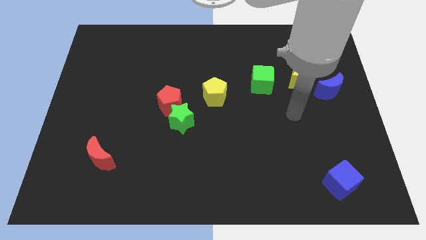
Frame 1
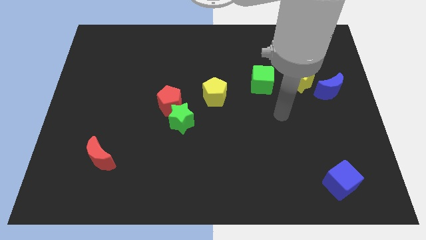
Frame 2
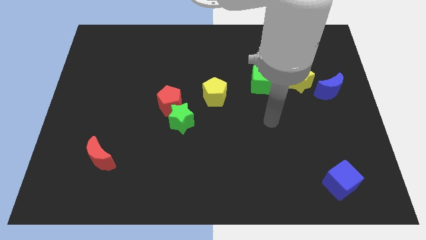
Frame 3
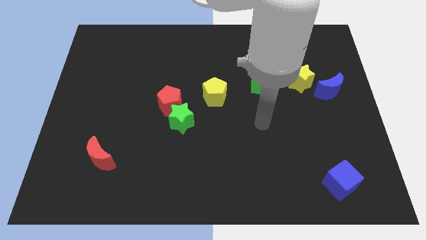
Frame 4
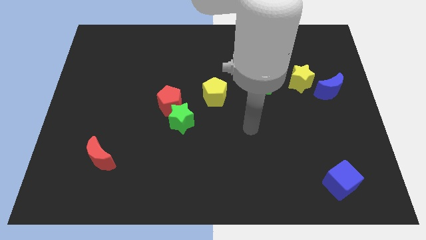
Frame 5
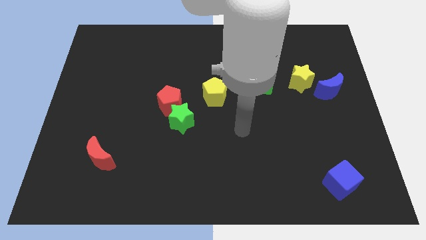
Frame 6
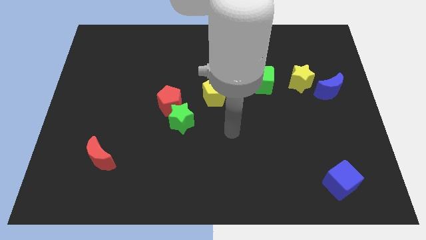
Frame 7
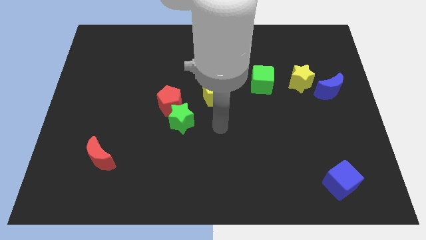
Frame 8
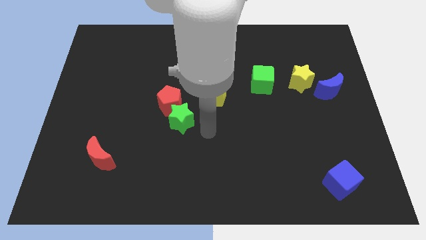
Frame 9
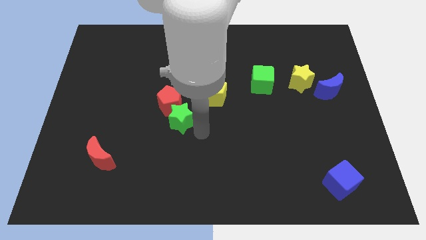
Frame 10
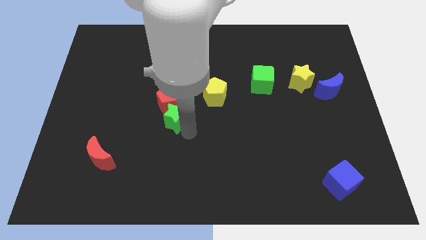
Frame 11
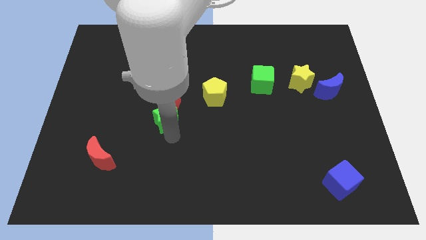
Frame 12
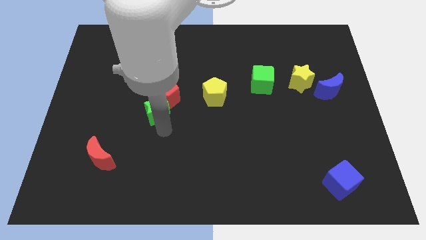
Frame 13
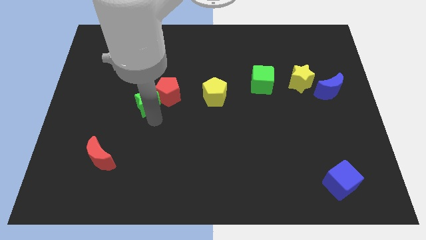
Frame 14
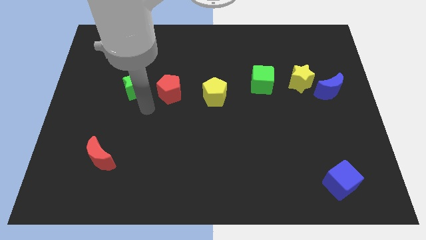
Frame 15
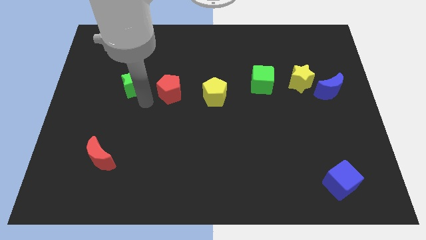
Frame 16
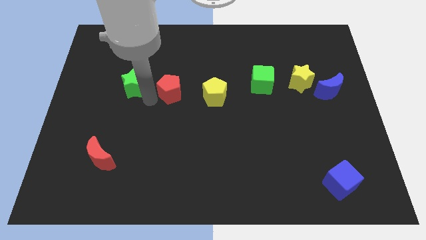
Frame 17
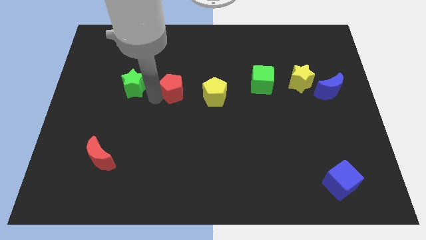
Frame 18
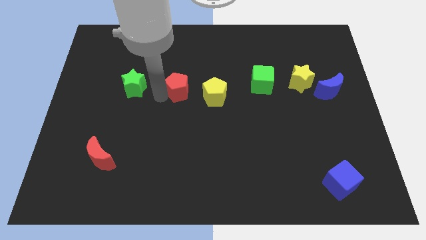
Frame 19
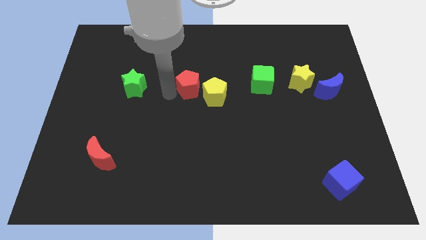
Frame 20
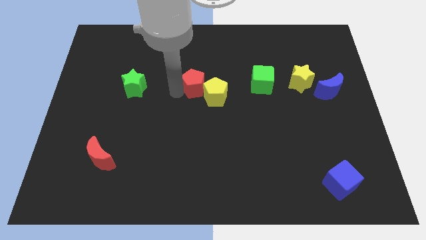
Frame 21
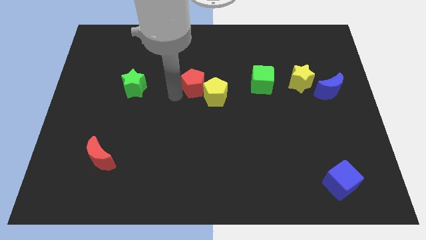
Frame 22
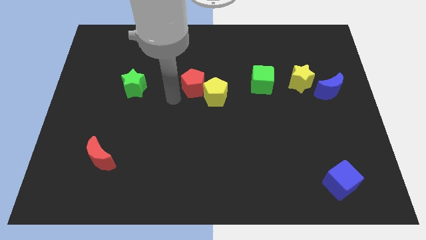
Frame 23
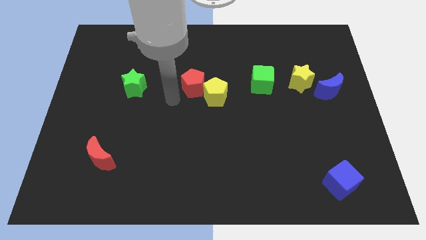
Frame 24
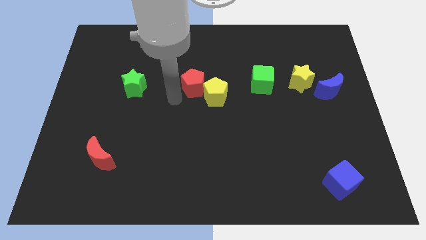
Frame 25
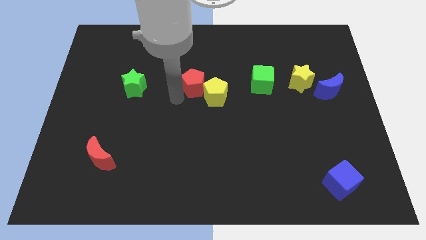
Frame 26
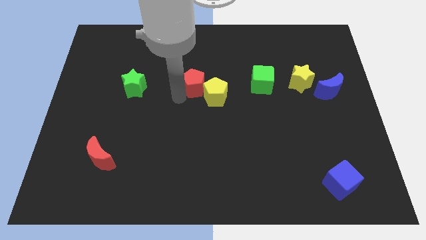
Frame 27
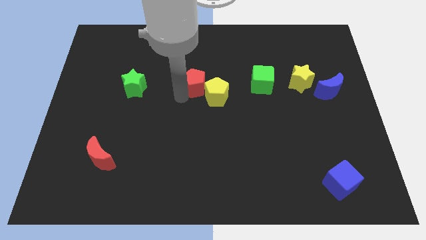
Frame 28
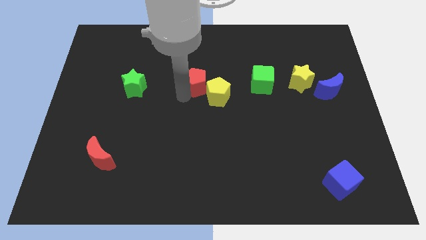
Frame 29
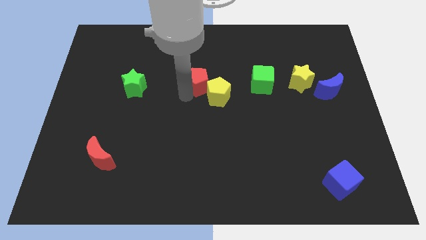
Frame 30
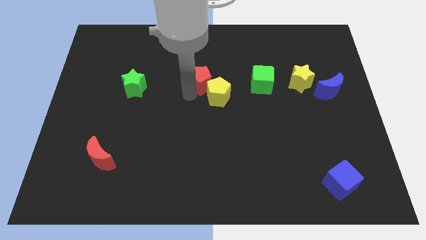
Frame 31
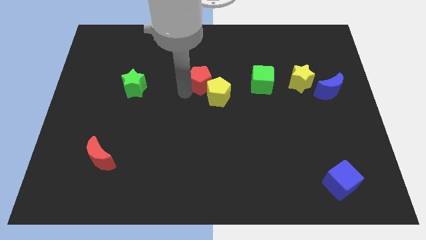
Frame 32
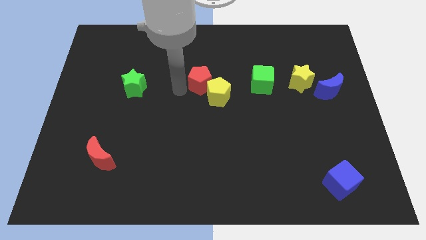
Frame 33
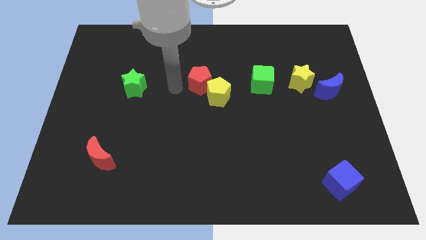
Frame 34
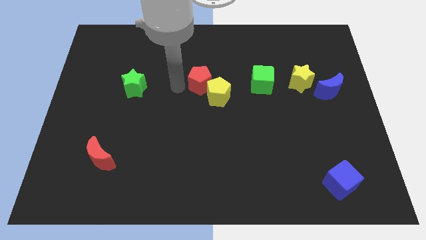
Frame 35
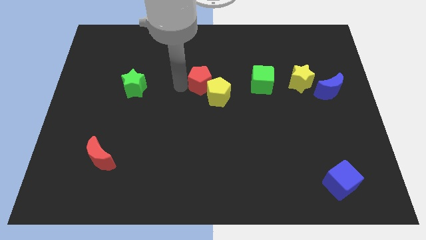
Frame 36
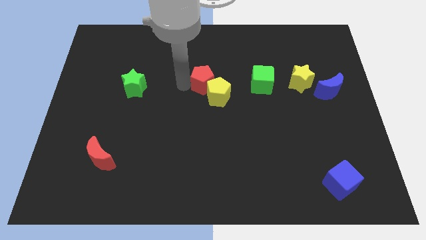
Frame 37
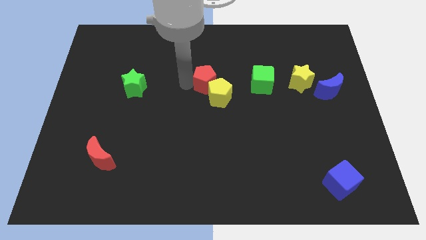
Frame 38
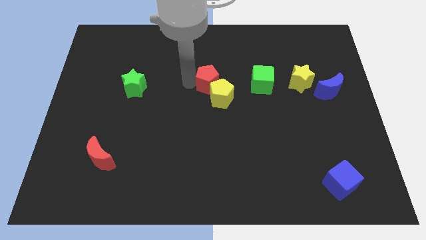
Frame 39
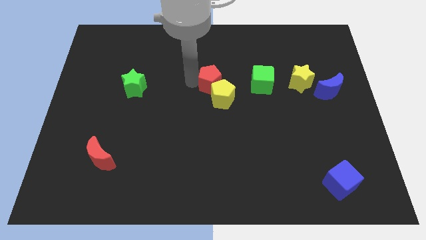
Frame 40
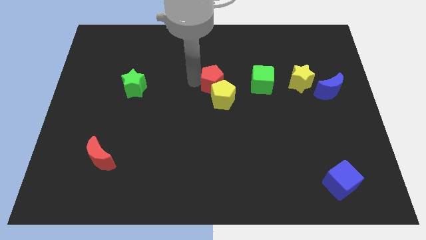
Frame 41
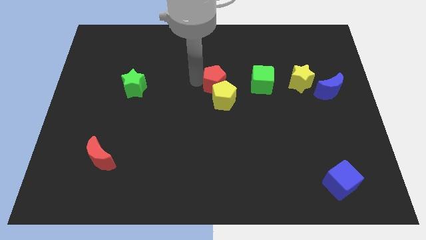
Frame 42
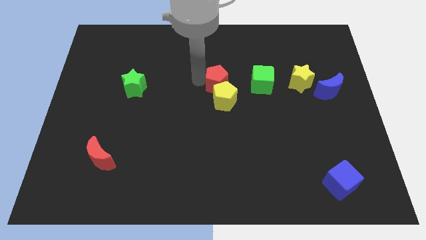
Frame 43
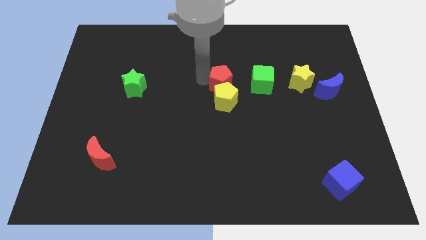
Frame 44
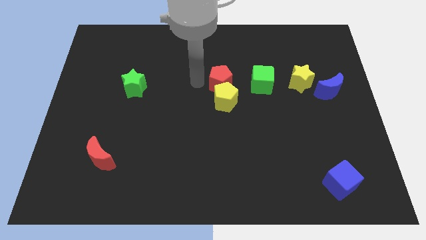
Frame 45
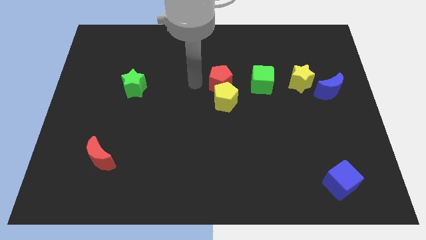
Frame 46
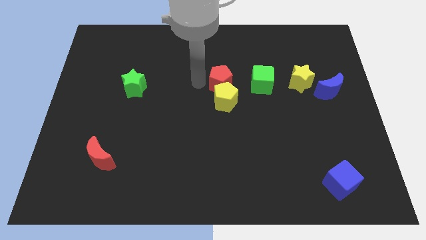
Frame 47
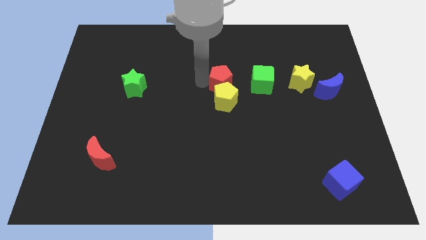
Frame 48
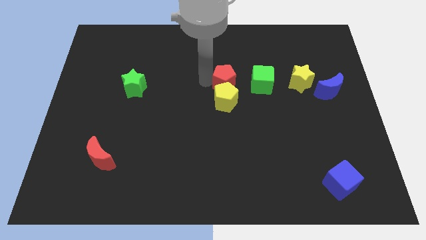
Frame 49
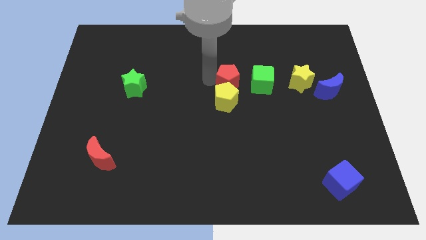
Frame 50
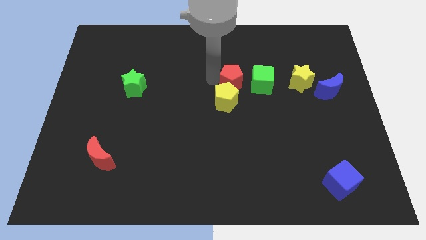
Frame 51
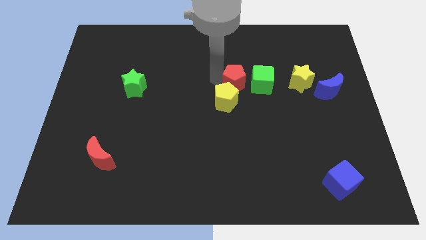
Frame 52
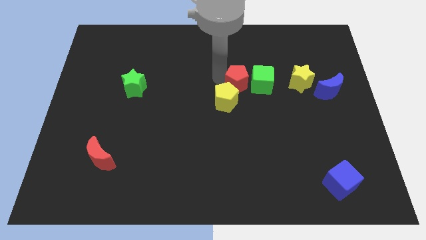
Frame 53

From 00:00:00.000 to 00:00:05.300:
slide the red pentagon to the green cube

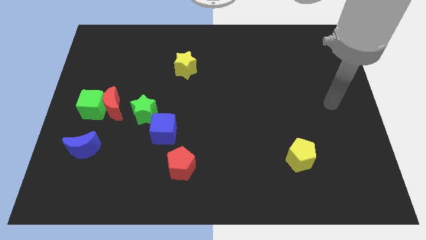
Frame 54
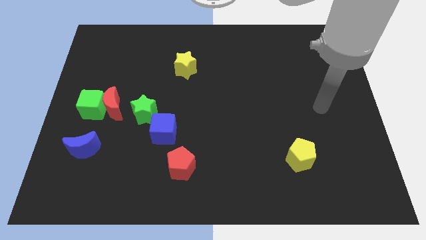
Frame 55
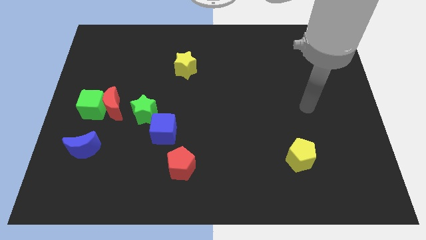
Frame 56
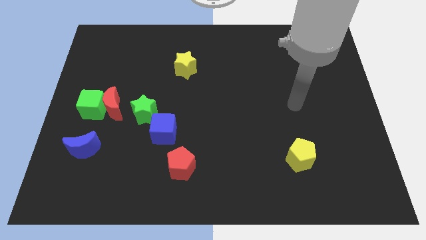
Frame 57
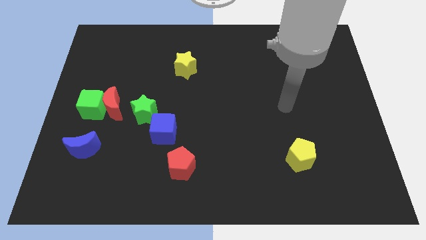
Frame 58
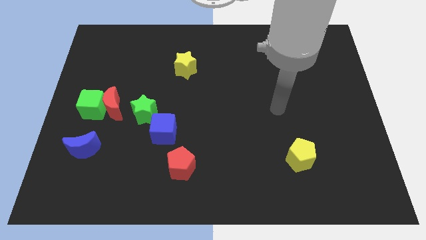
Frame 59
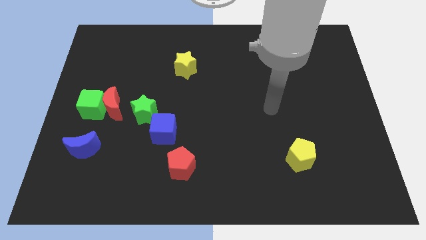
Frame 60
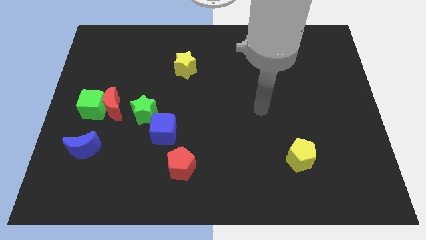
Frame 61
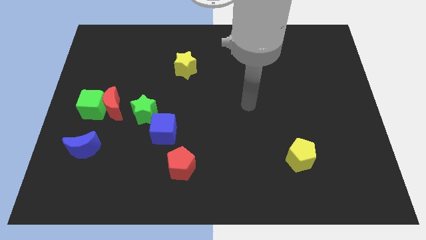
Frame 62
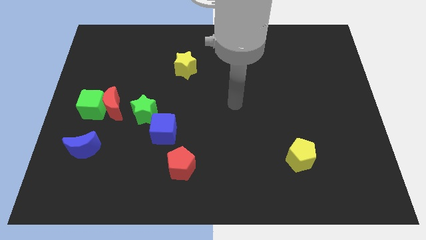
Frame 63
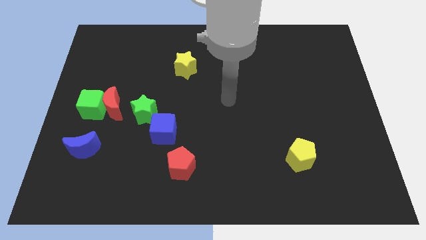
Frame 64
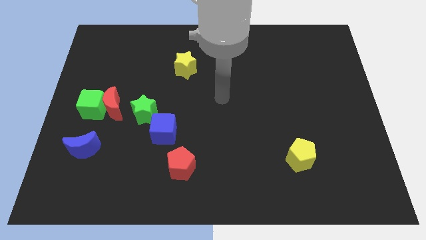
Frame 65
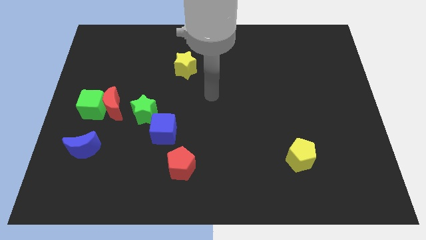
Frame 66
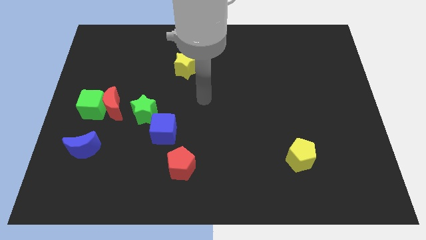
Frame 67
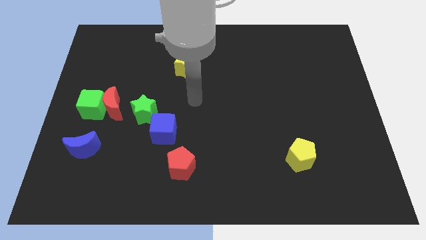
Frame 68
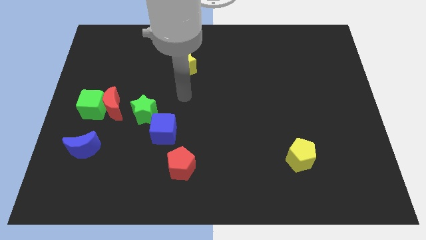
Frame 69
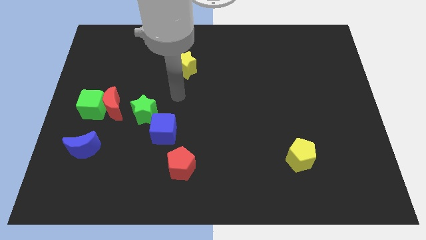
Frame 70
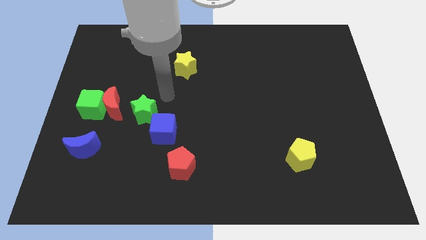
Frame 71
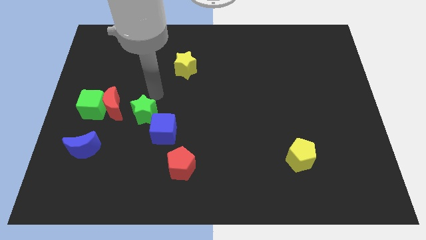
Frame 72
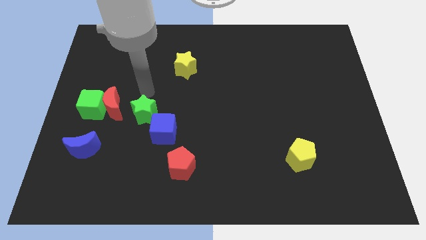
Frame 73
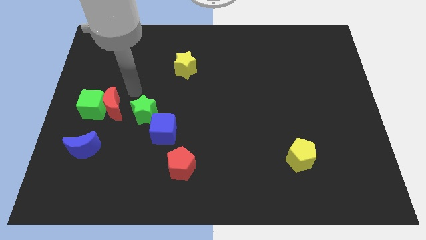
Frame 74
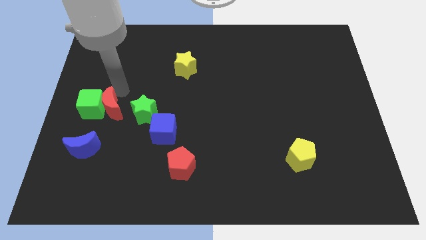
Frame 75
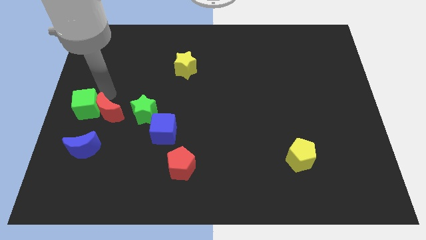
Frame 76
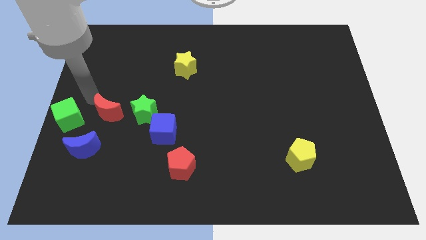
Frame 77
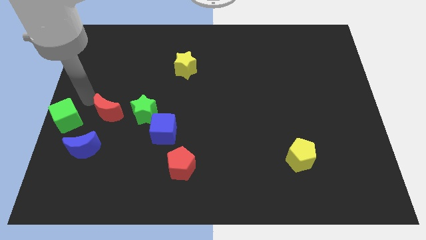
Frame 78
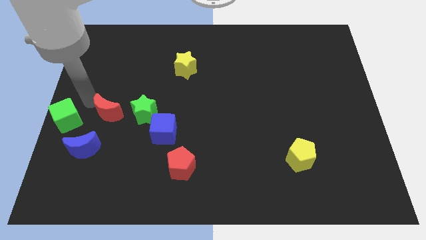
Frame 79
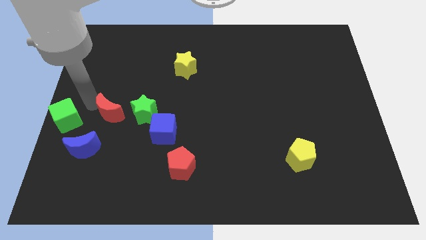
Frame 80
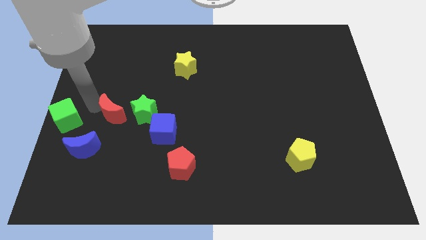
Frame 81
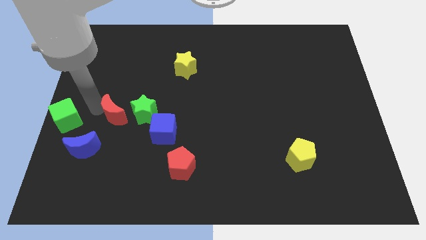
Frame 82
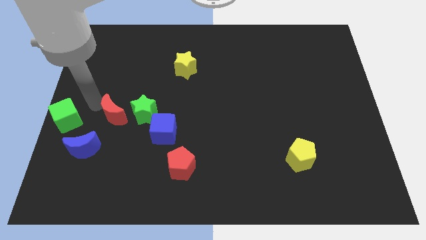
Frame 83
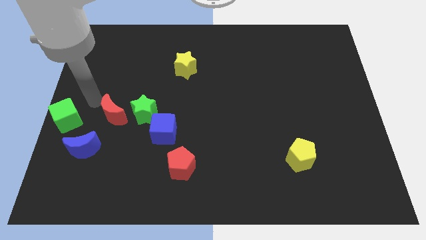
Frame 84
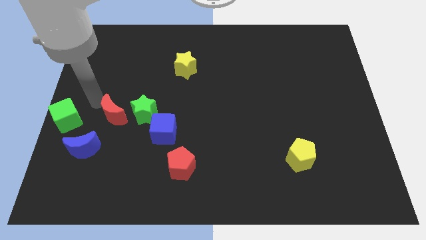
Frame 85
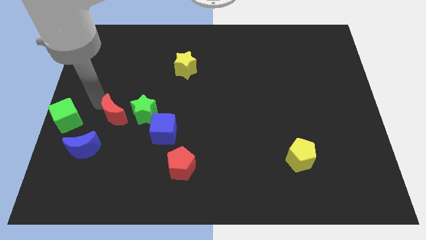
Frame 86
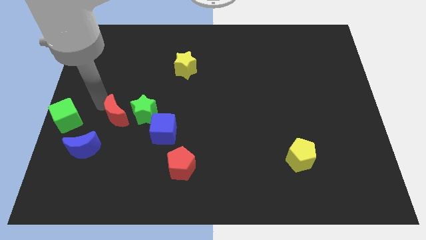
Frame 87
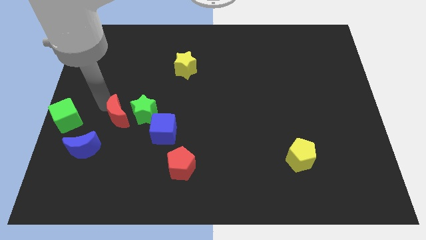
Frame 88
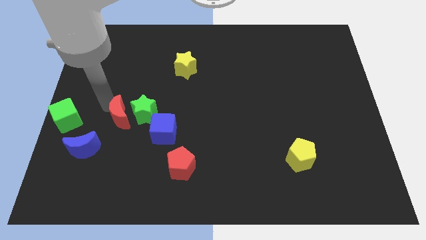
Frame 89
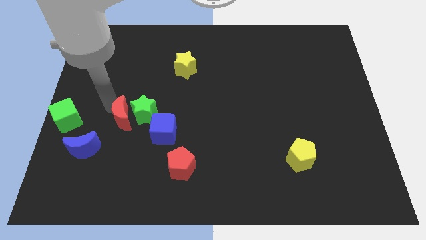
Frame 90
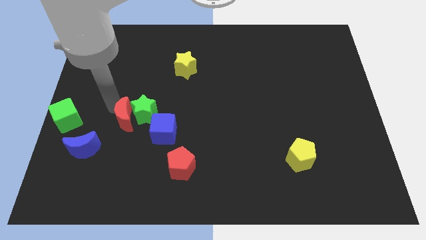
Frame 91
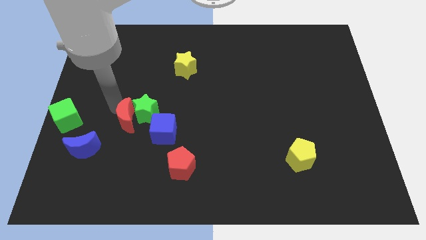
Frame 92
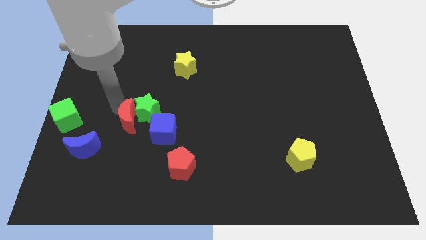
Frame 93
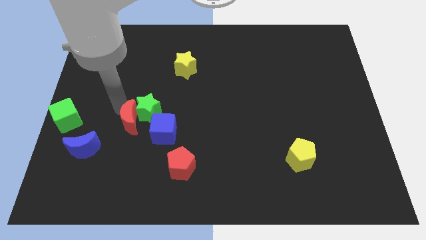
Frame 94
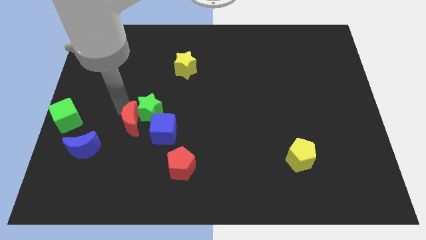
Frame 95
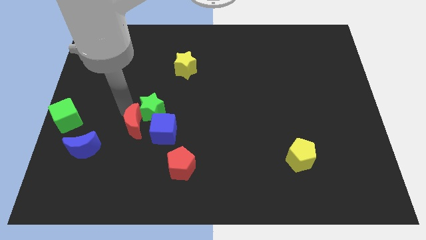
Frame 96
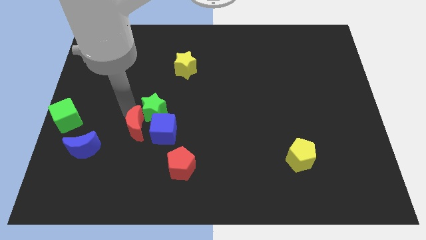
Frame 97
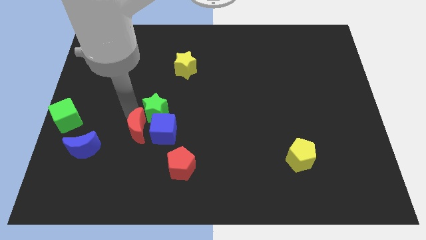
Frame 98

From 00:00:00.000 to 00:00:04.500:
slide the red moon to the blue cube
